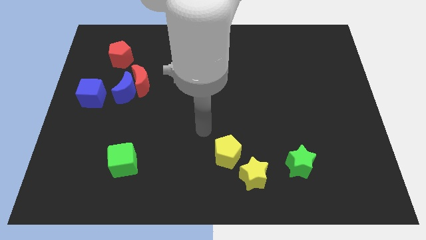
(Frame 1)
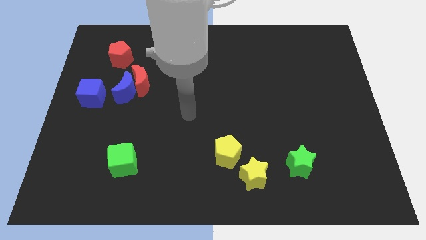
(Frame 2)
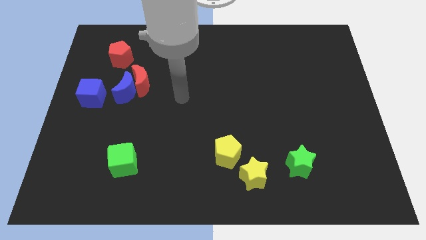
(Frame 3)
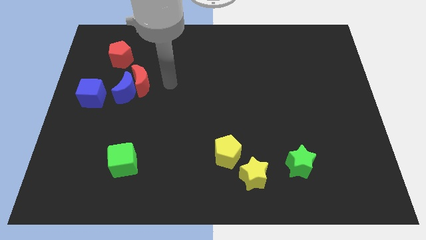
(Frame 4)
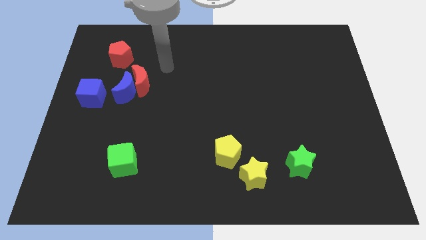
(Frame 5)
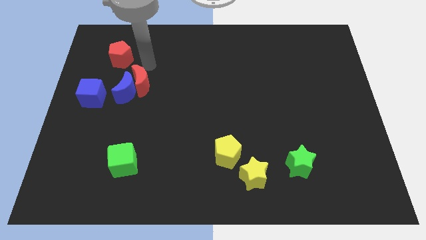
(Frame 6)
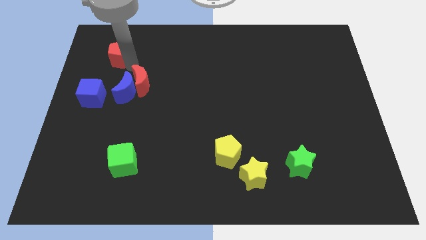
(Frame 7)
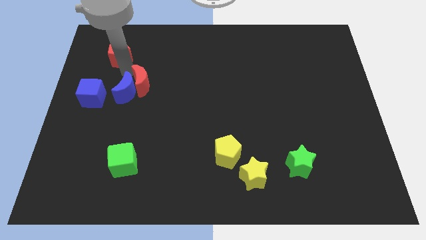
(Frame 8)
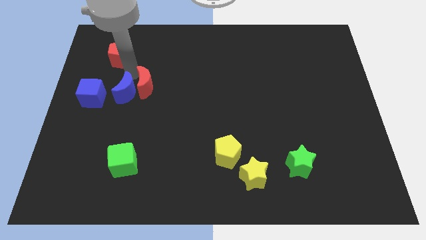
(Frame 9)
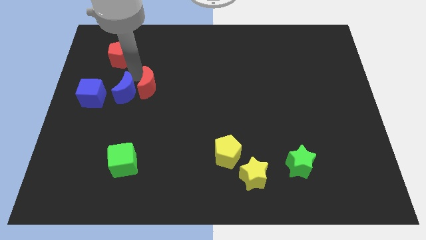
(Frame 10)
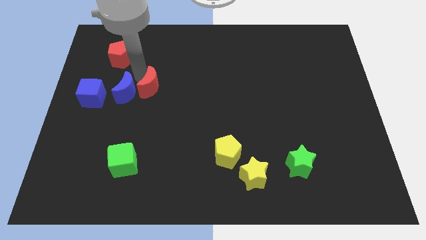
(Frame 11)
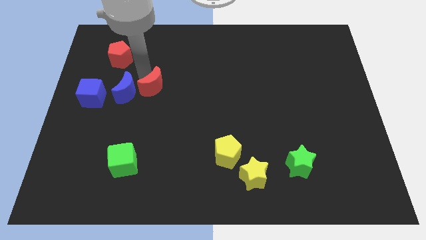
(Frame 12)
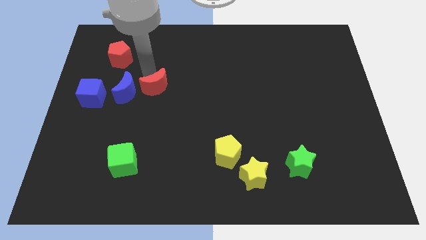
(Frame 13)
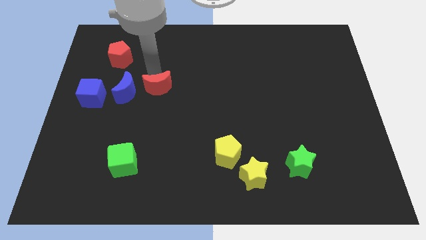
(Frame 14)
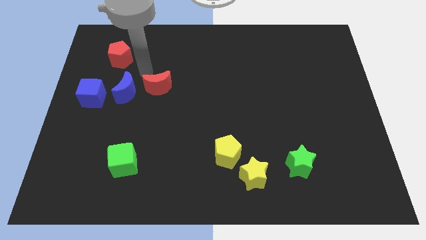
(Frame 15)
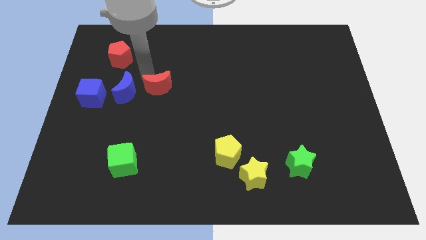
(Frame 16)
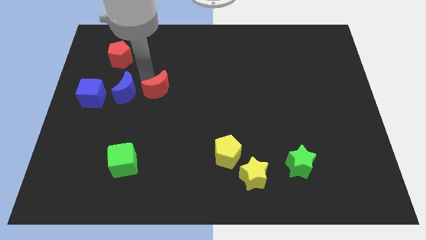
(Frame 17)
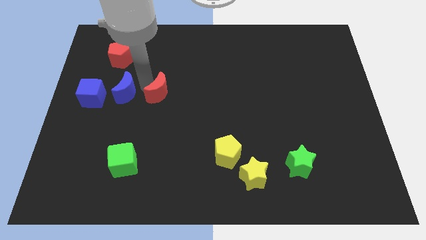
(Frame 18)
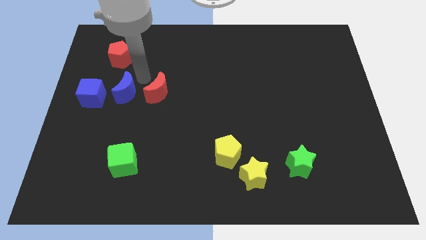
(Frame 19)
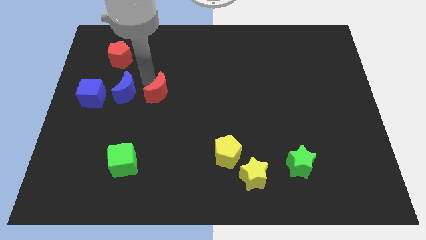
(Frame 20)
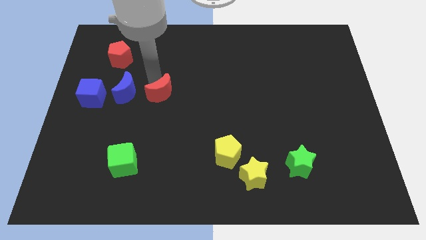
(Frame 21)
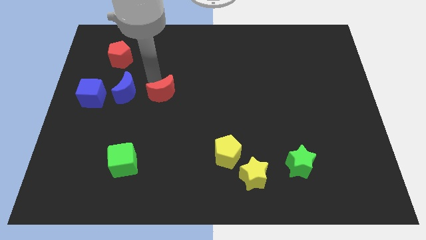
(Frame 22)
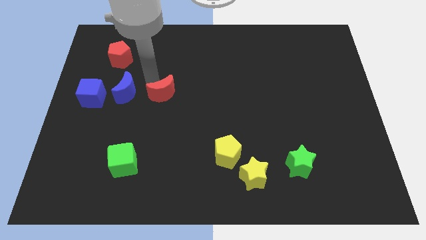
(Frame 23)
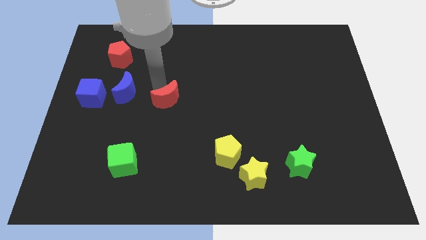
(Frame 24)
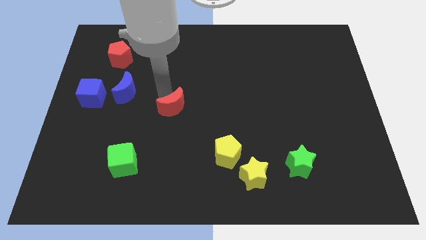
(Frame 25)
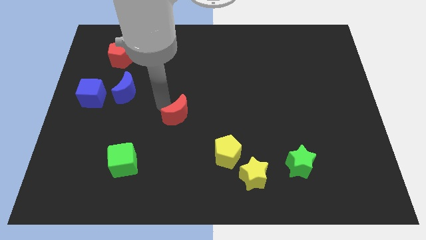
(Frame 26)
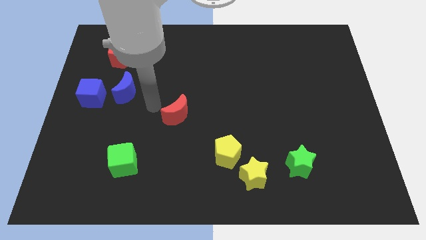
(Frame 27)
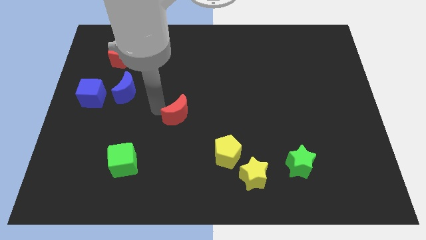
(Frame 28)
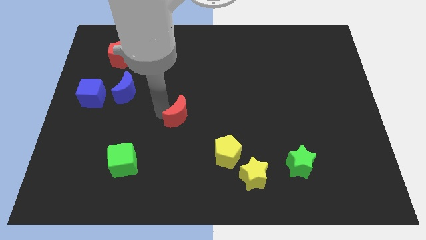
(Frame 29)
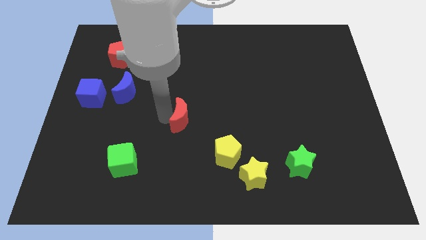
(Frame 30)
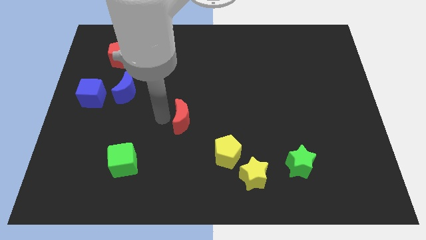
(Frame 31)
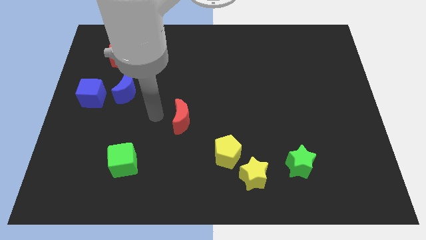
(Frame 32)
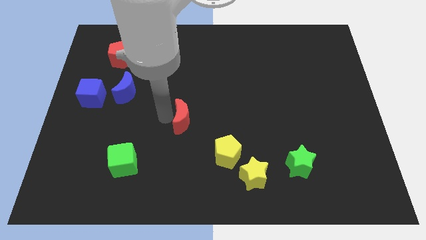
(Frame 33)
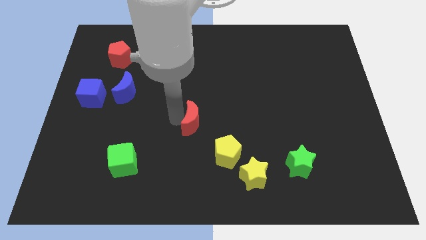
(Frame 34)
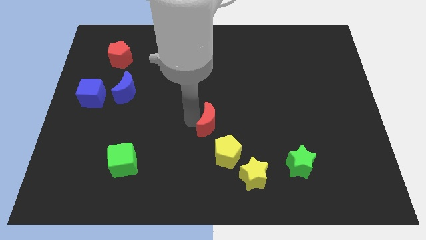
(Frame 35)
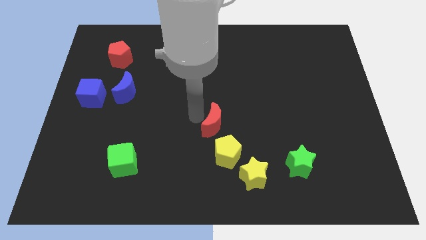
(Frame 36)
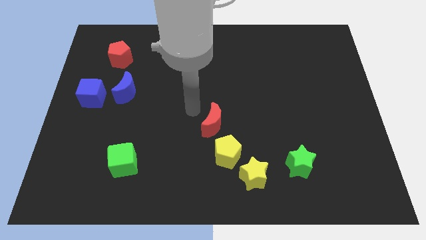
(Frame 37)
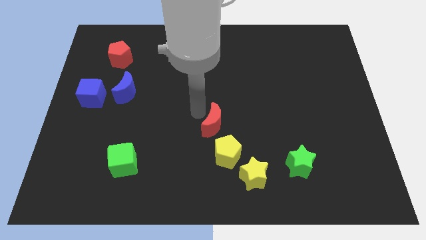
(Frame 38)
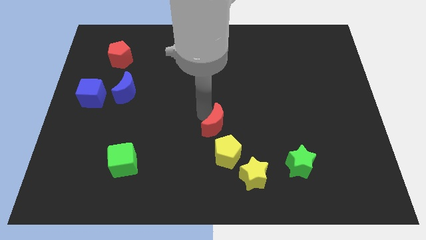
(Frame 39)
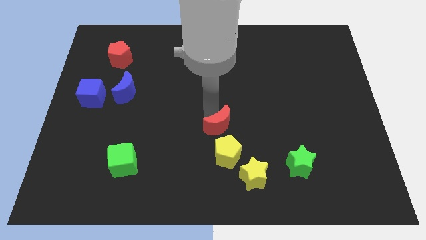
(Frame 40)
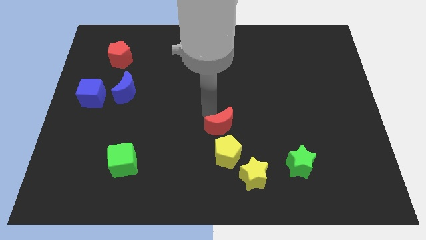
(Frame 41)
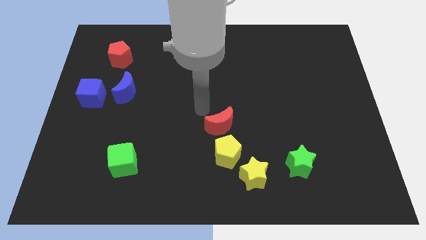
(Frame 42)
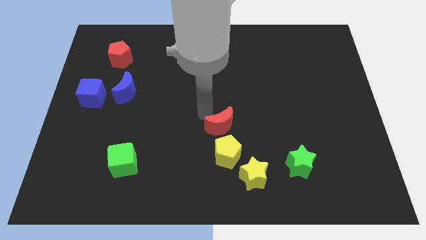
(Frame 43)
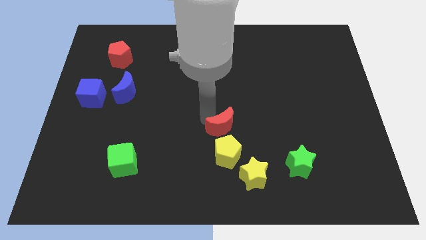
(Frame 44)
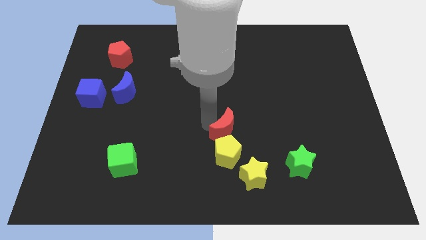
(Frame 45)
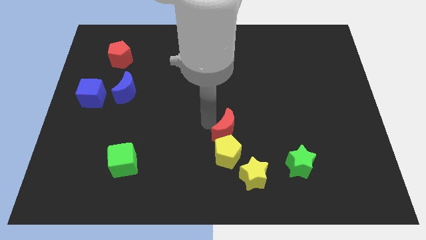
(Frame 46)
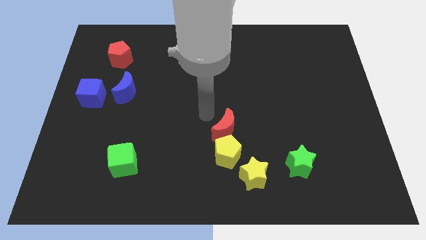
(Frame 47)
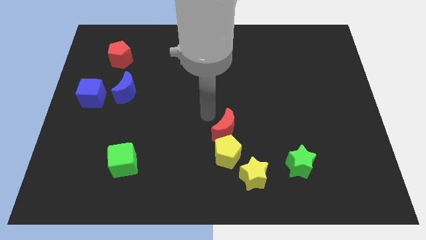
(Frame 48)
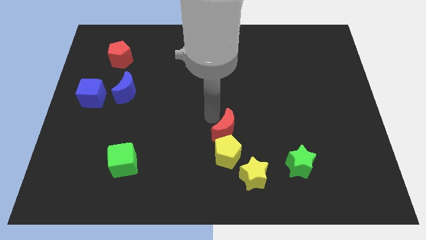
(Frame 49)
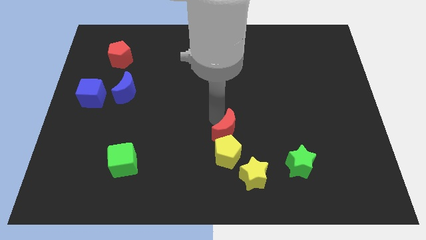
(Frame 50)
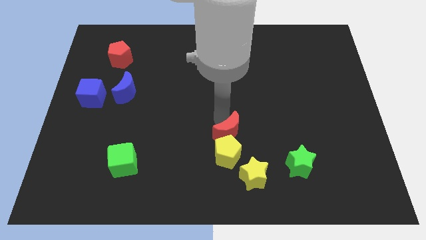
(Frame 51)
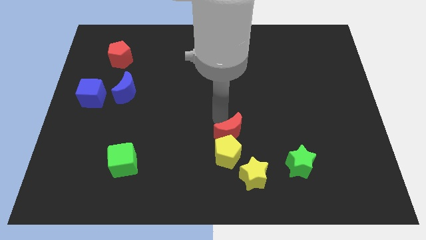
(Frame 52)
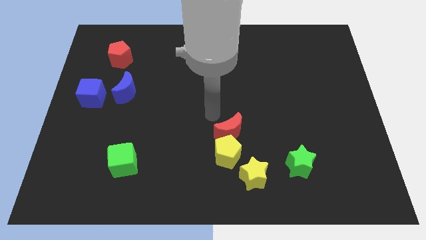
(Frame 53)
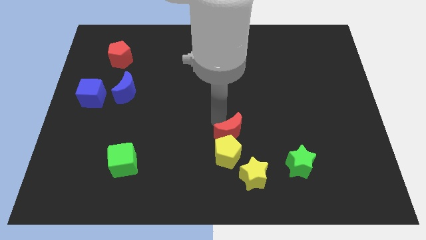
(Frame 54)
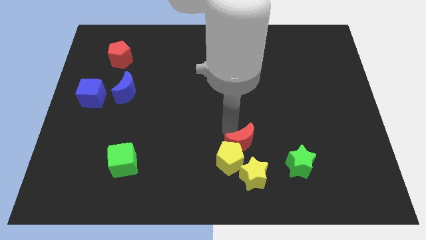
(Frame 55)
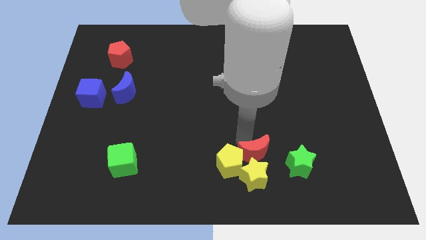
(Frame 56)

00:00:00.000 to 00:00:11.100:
slide the red moon to the yellow star

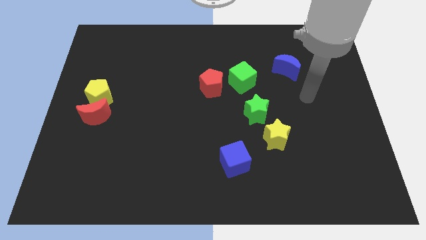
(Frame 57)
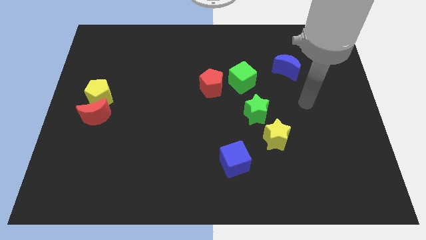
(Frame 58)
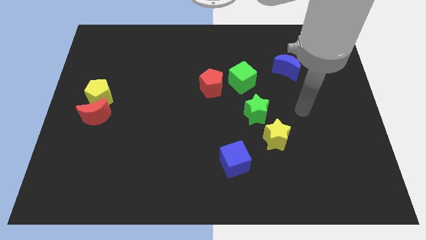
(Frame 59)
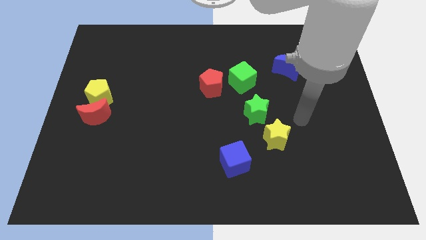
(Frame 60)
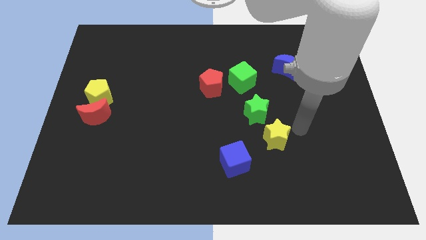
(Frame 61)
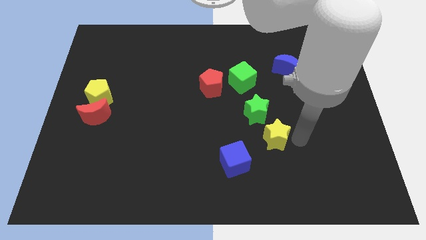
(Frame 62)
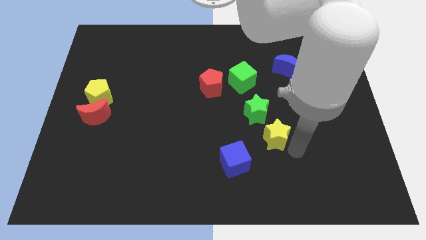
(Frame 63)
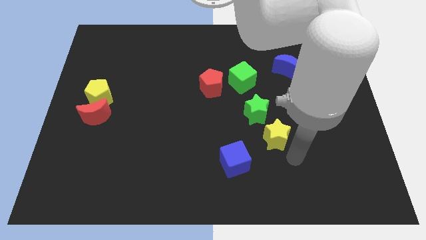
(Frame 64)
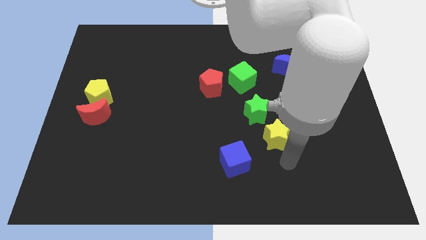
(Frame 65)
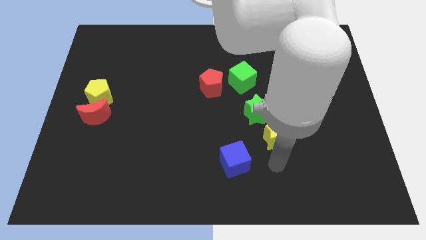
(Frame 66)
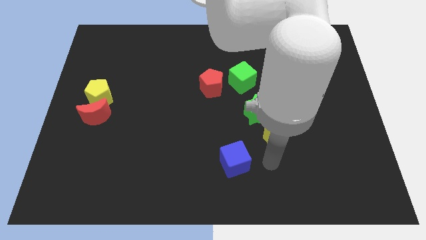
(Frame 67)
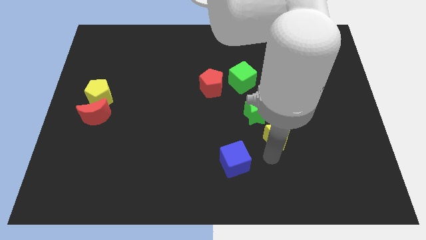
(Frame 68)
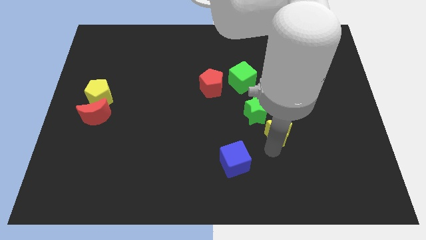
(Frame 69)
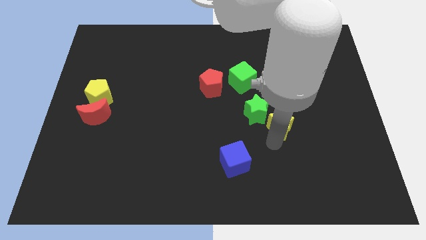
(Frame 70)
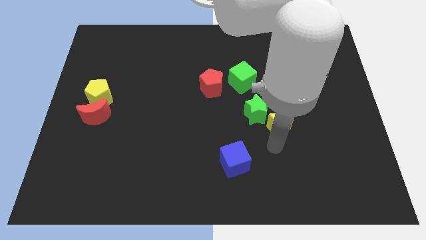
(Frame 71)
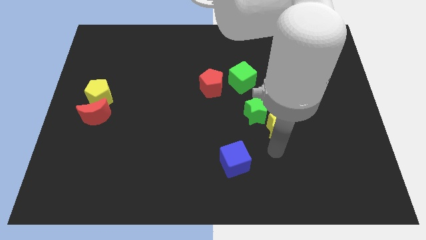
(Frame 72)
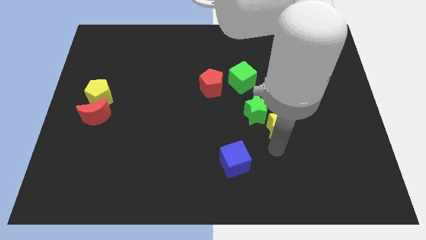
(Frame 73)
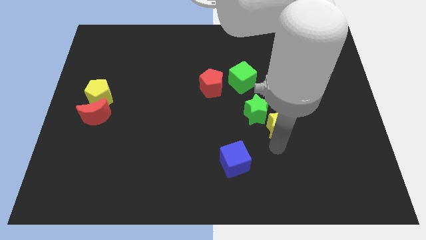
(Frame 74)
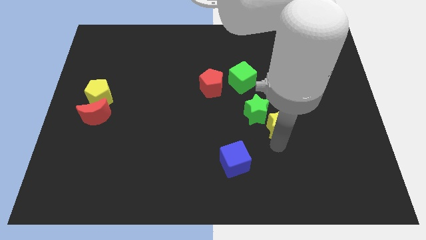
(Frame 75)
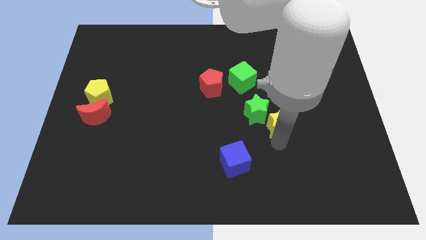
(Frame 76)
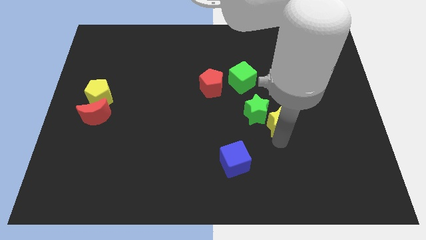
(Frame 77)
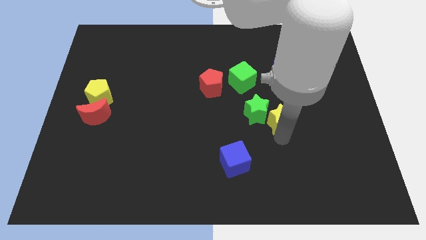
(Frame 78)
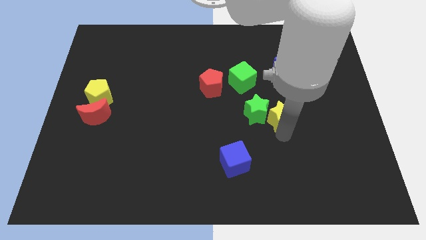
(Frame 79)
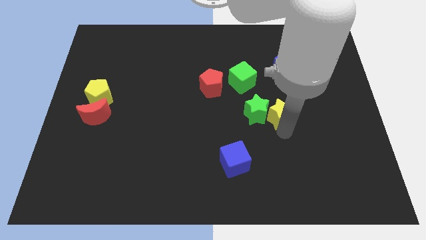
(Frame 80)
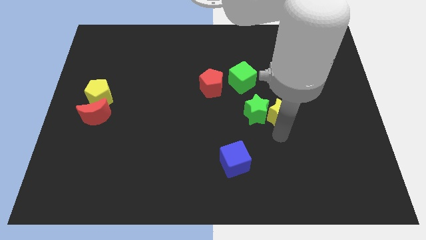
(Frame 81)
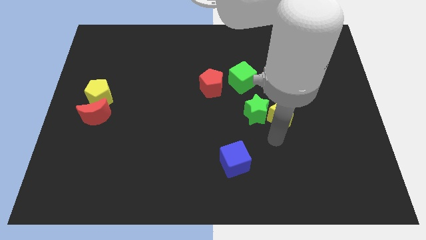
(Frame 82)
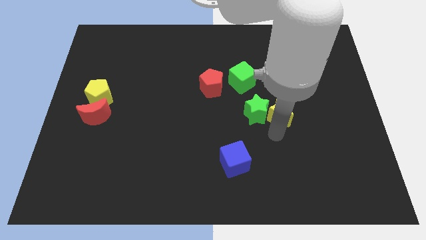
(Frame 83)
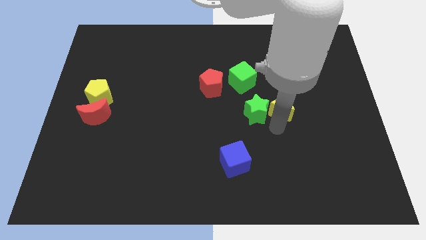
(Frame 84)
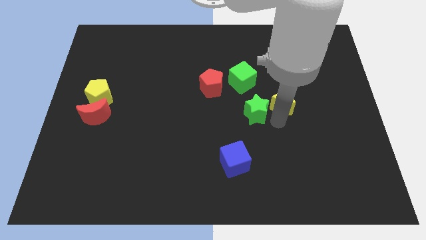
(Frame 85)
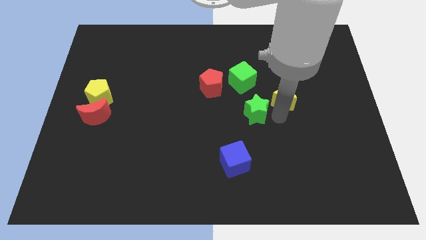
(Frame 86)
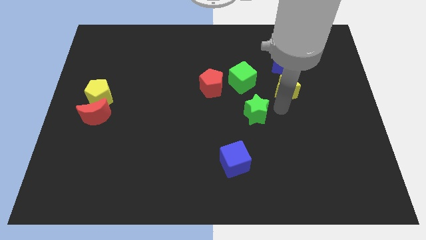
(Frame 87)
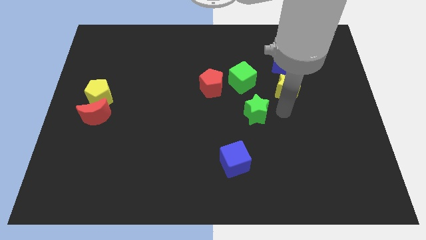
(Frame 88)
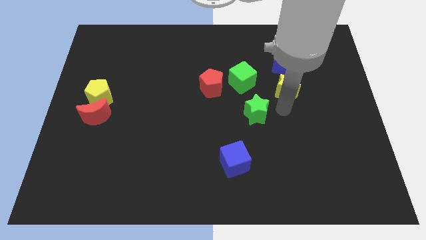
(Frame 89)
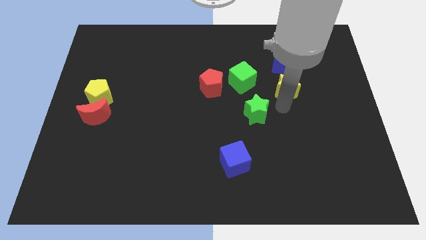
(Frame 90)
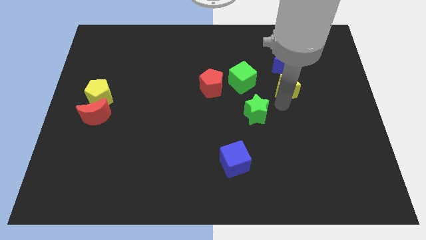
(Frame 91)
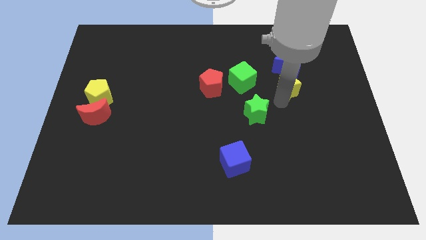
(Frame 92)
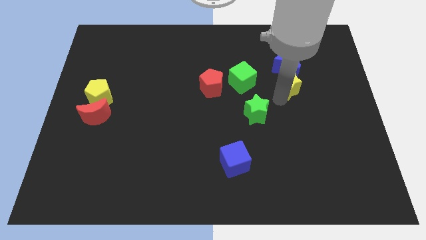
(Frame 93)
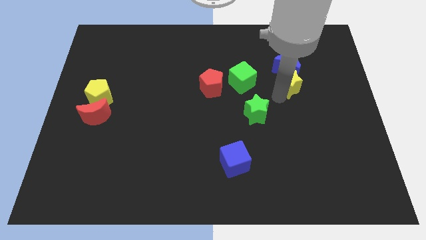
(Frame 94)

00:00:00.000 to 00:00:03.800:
push the yellow star towards the blue moon
